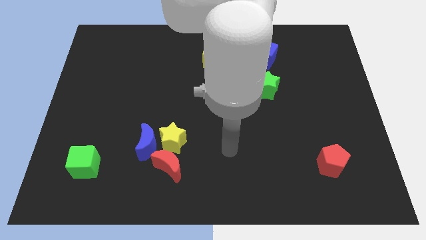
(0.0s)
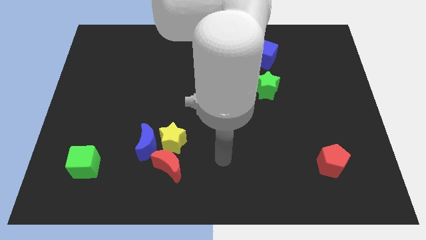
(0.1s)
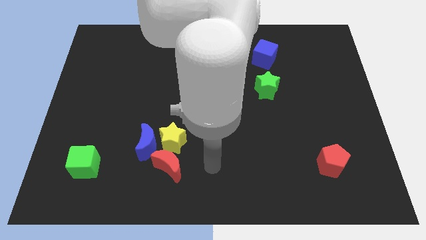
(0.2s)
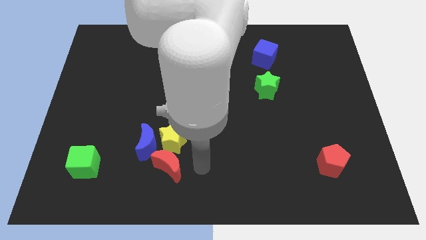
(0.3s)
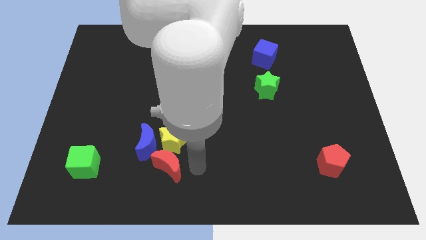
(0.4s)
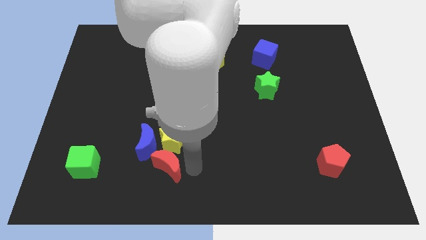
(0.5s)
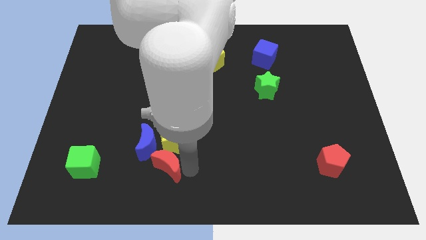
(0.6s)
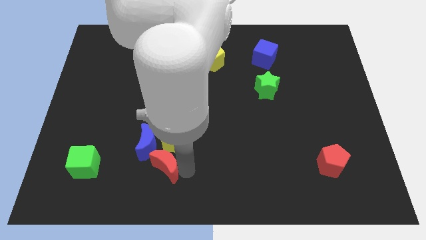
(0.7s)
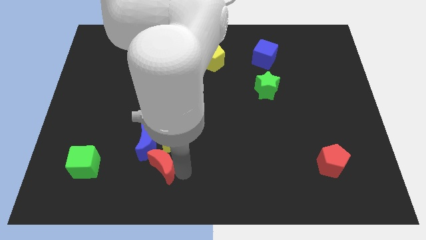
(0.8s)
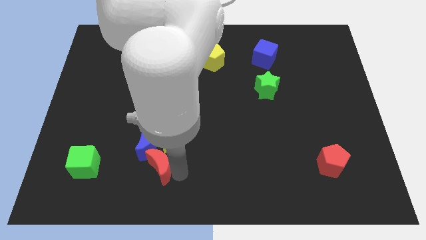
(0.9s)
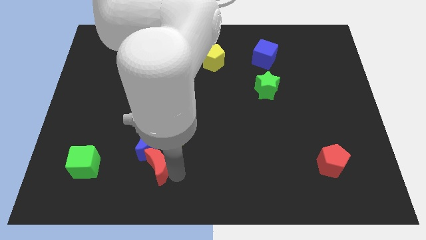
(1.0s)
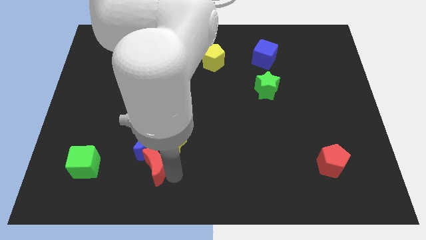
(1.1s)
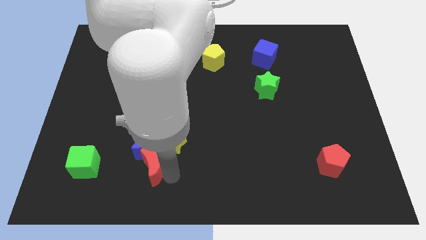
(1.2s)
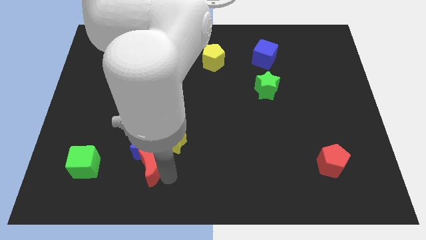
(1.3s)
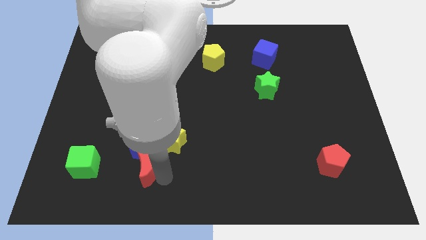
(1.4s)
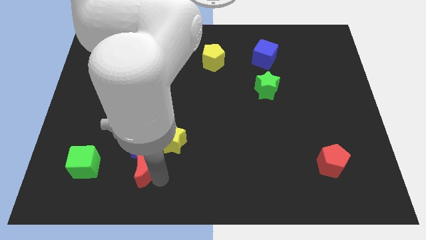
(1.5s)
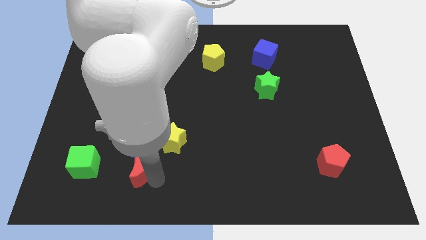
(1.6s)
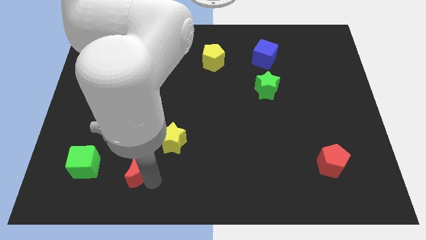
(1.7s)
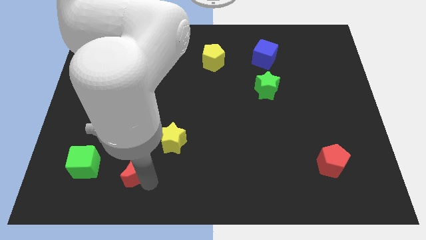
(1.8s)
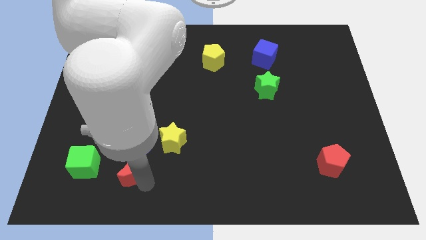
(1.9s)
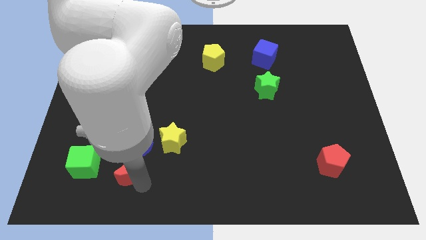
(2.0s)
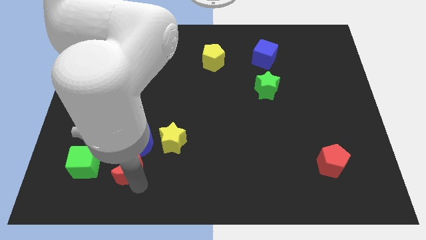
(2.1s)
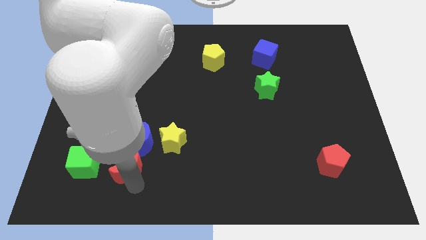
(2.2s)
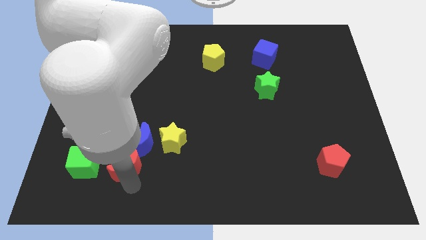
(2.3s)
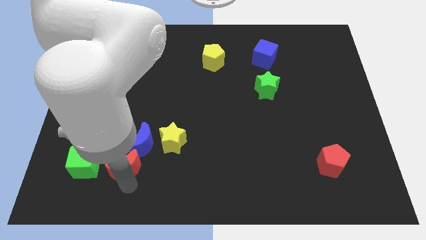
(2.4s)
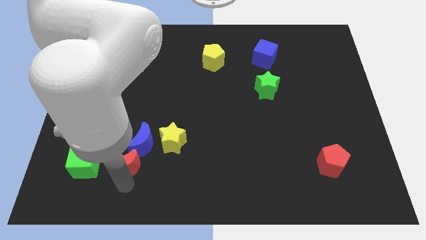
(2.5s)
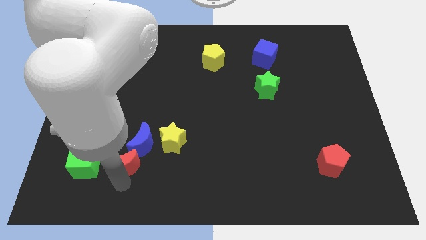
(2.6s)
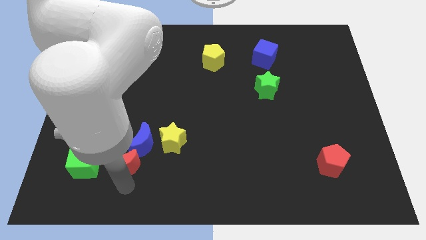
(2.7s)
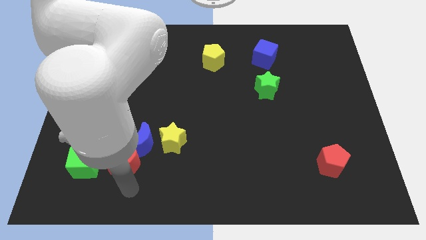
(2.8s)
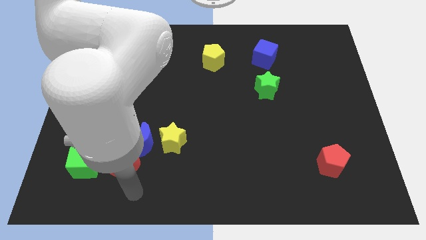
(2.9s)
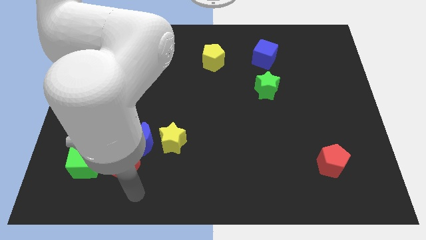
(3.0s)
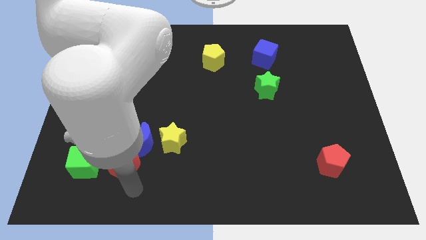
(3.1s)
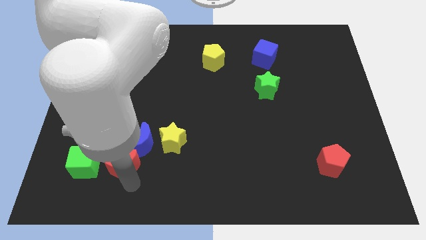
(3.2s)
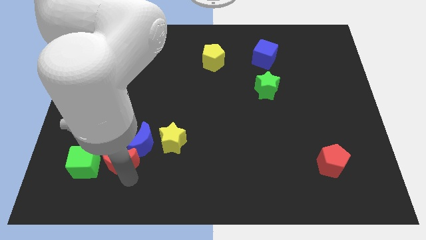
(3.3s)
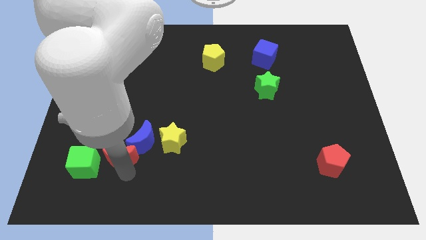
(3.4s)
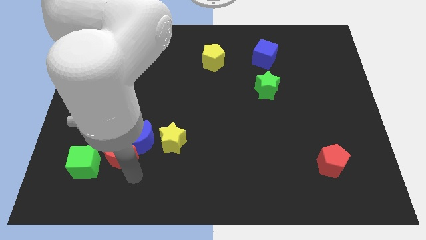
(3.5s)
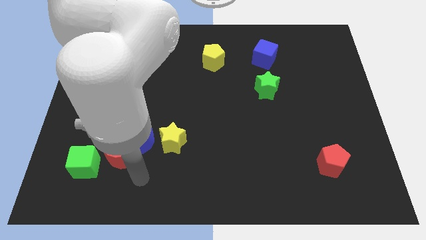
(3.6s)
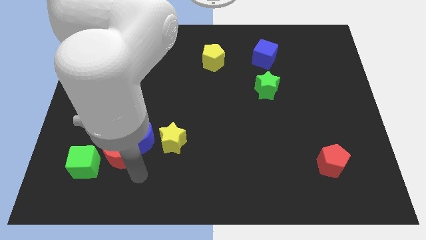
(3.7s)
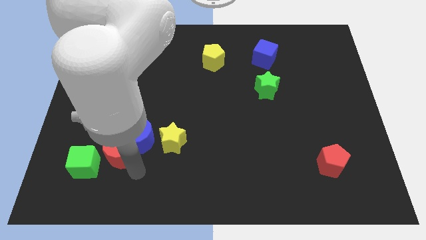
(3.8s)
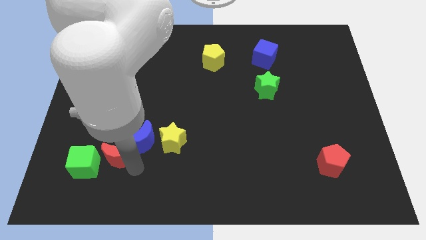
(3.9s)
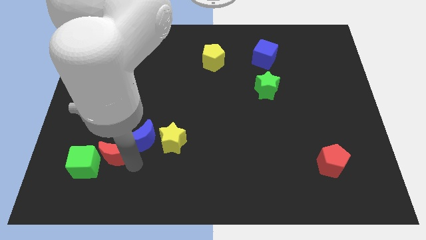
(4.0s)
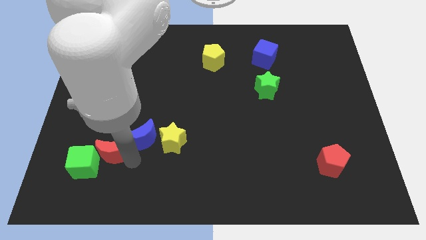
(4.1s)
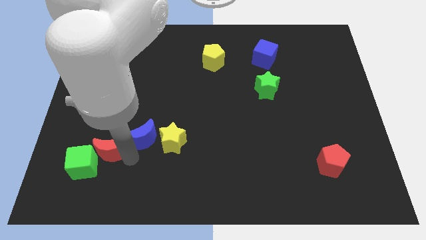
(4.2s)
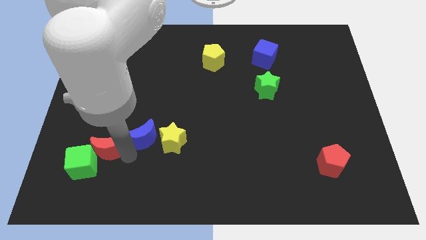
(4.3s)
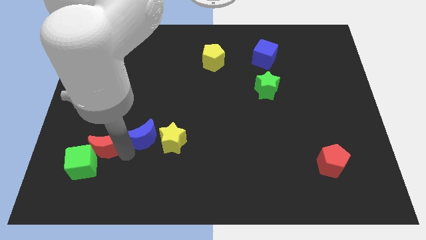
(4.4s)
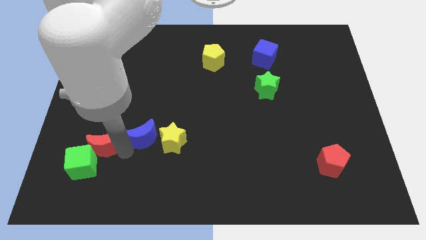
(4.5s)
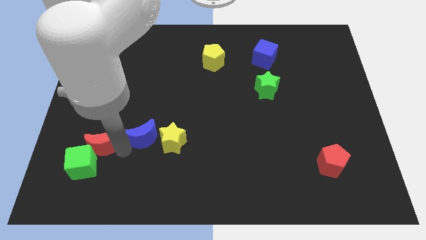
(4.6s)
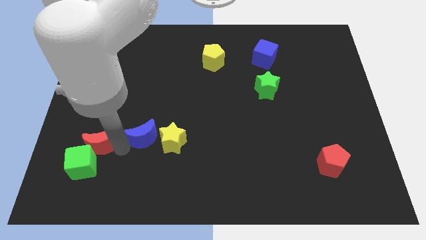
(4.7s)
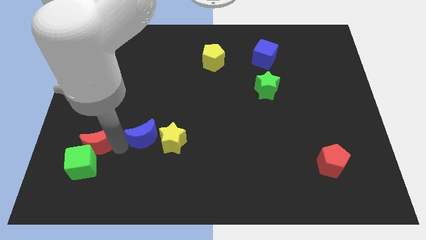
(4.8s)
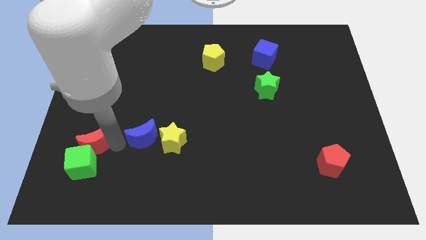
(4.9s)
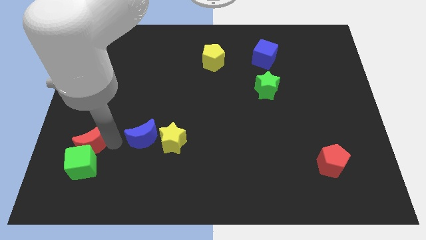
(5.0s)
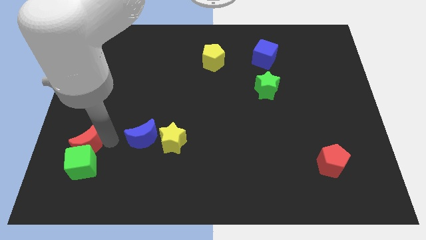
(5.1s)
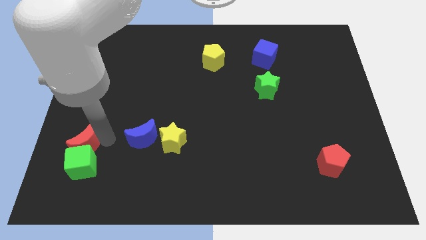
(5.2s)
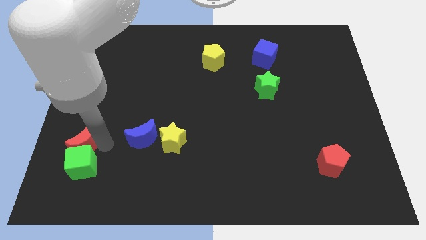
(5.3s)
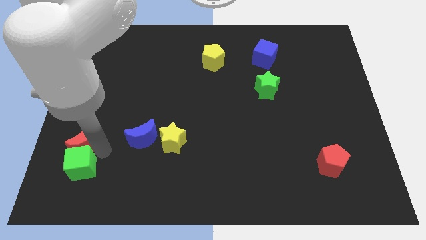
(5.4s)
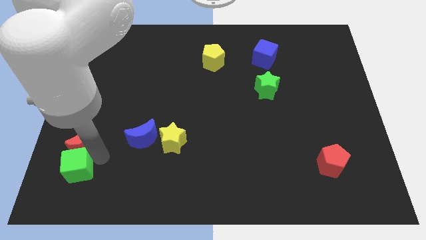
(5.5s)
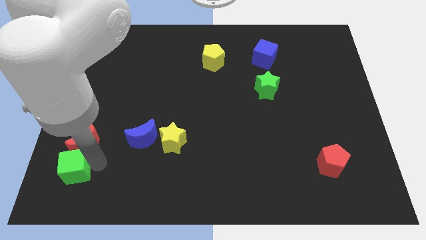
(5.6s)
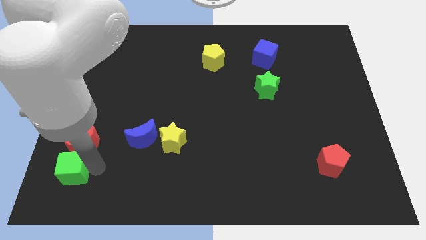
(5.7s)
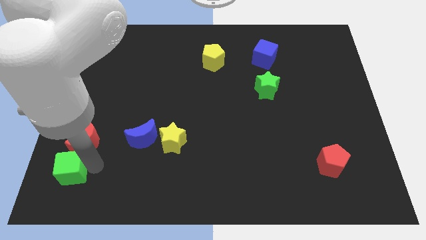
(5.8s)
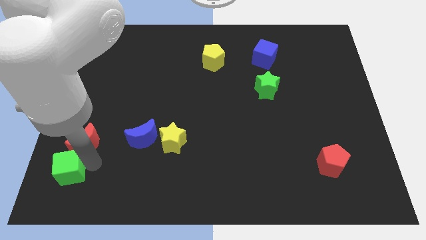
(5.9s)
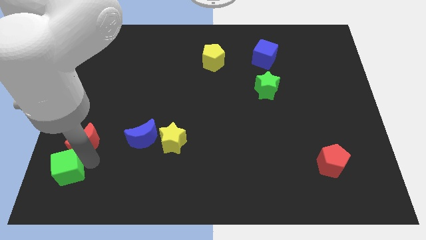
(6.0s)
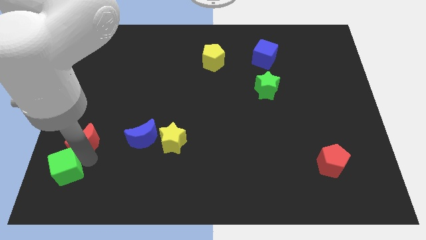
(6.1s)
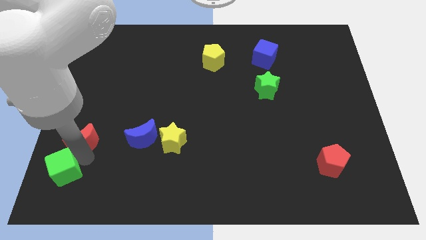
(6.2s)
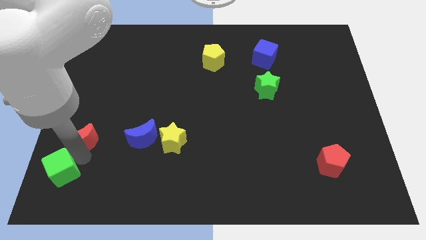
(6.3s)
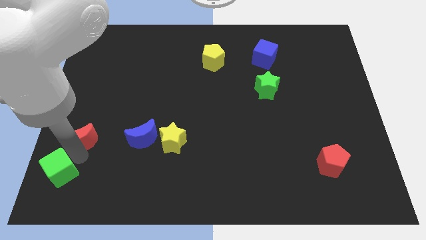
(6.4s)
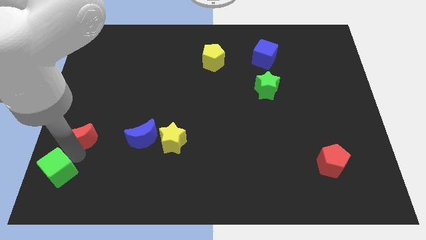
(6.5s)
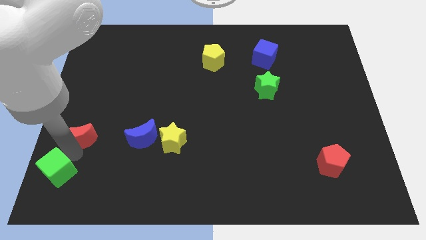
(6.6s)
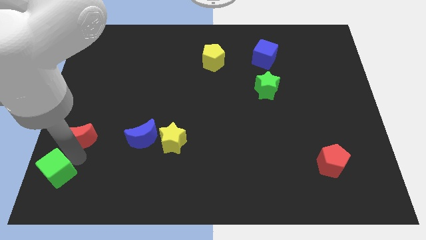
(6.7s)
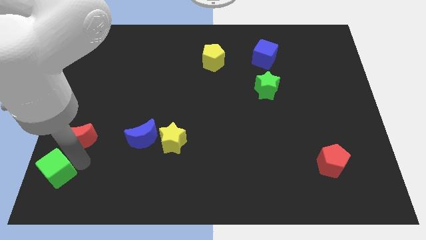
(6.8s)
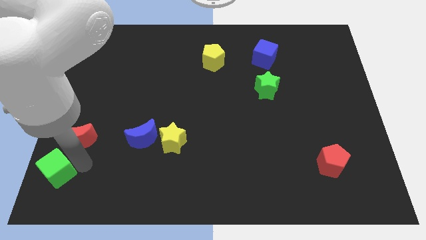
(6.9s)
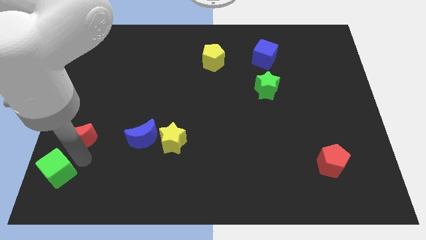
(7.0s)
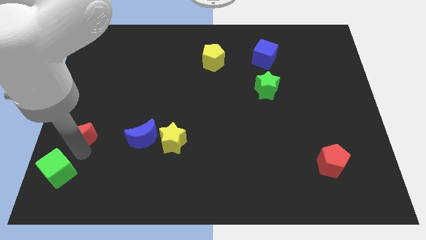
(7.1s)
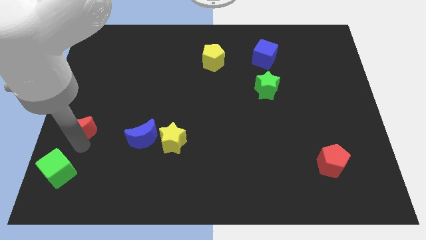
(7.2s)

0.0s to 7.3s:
slide the red moon to the left side of the board
